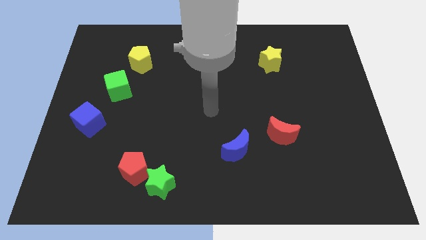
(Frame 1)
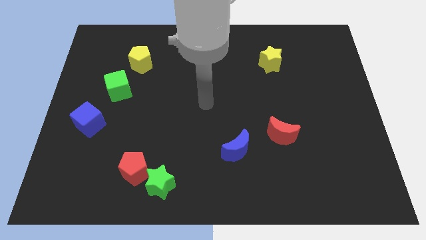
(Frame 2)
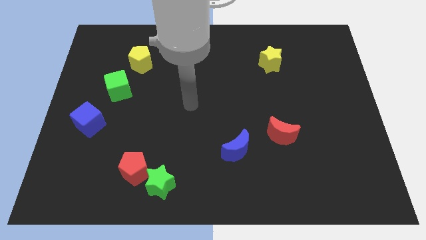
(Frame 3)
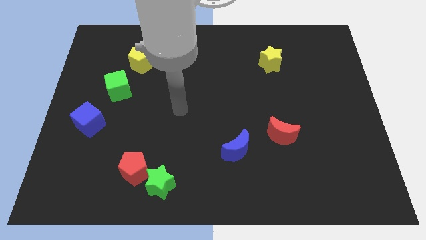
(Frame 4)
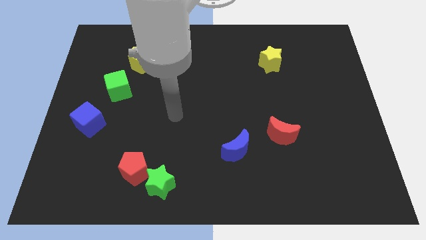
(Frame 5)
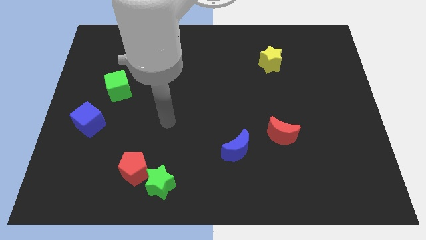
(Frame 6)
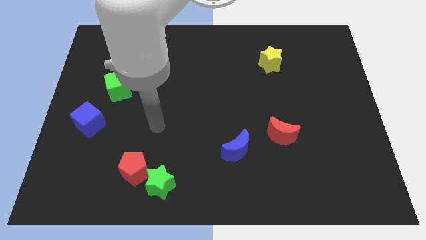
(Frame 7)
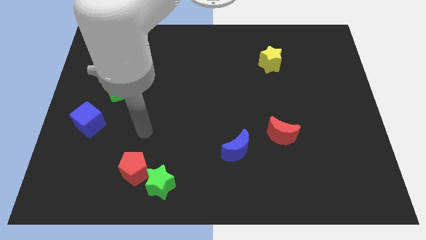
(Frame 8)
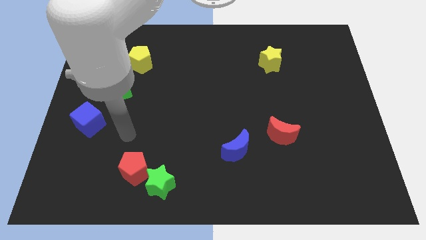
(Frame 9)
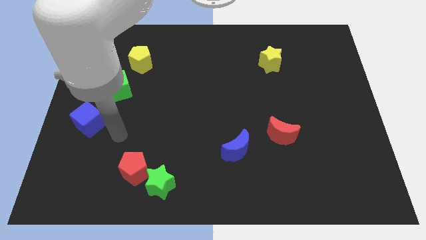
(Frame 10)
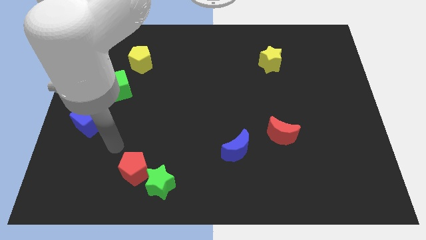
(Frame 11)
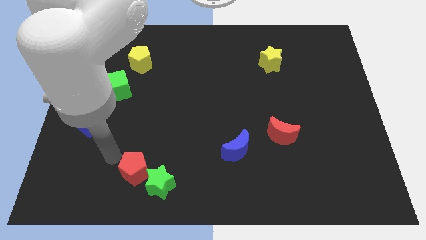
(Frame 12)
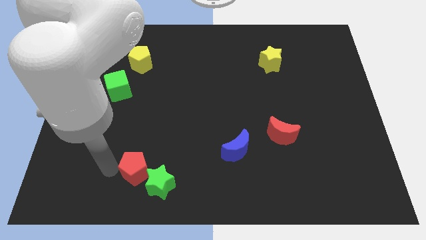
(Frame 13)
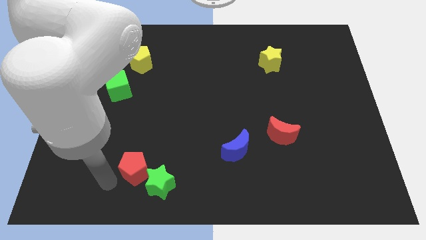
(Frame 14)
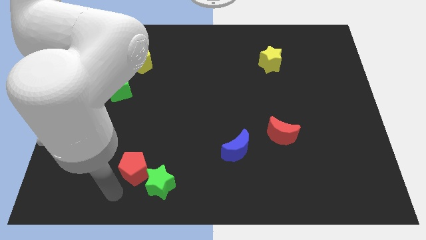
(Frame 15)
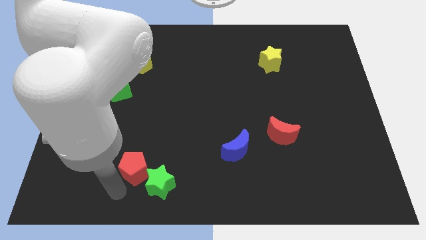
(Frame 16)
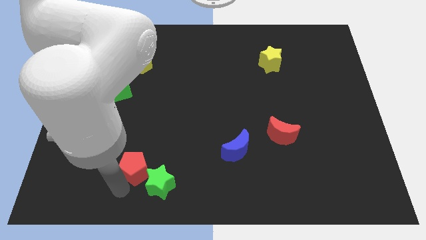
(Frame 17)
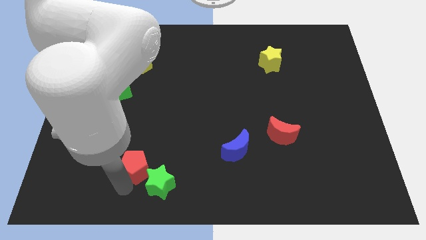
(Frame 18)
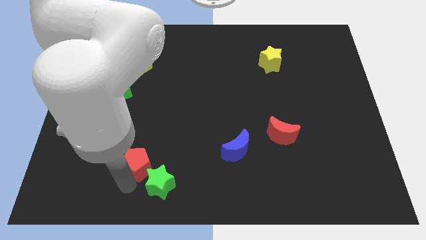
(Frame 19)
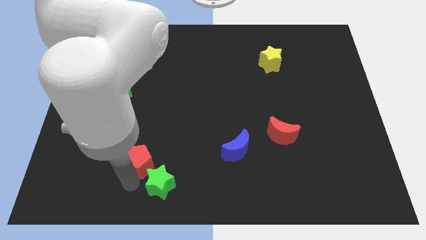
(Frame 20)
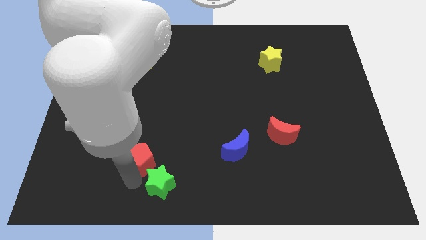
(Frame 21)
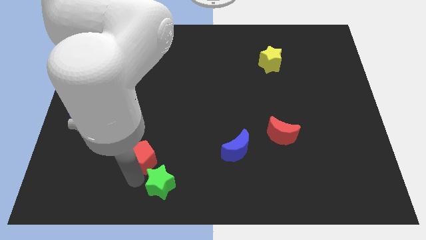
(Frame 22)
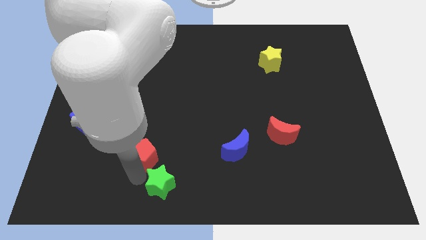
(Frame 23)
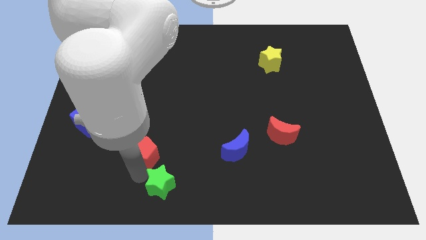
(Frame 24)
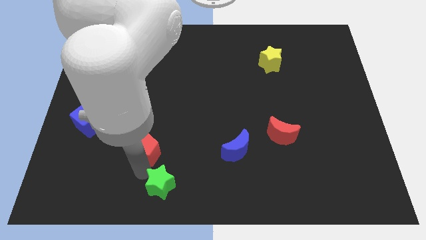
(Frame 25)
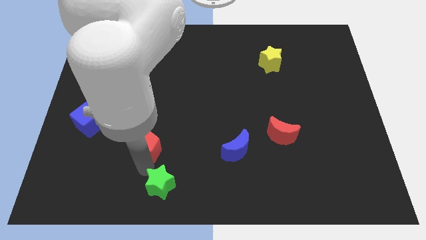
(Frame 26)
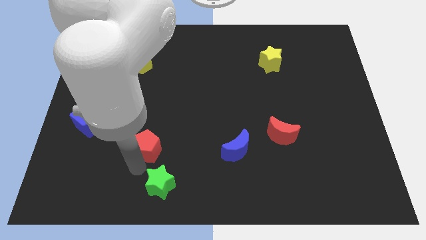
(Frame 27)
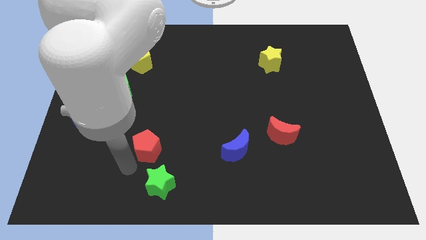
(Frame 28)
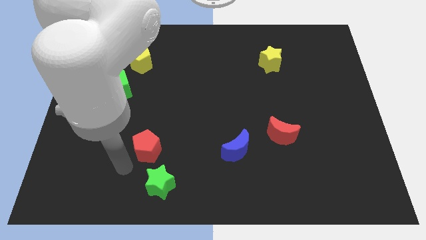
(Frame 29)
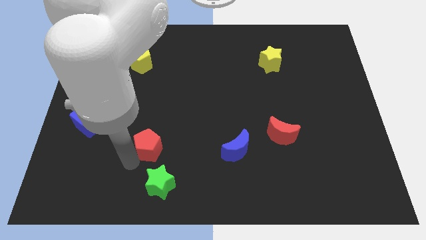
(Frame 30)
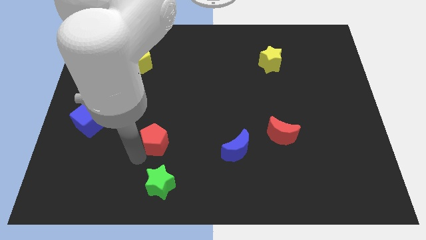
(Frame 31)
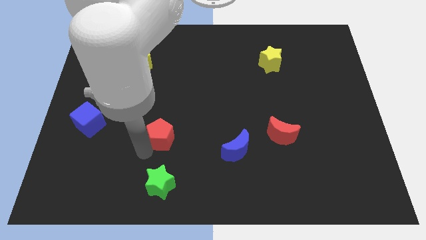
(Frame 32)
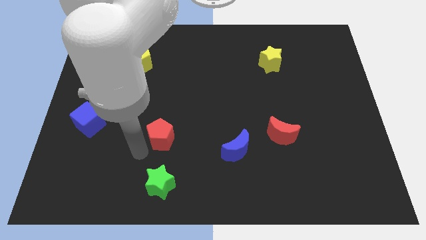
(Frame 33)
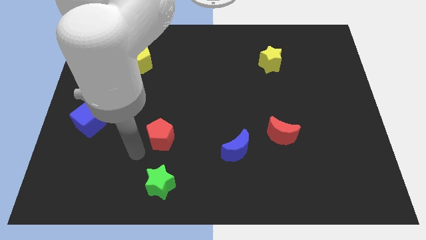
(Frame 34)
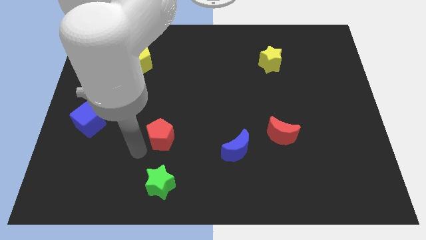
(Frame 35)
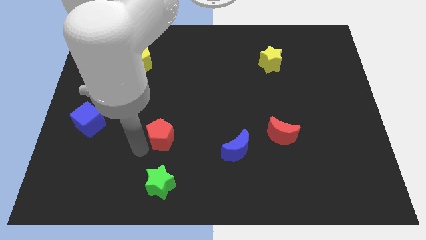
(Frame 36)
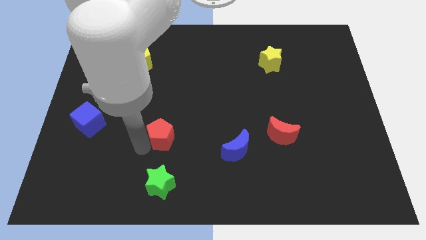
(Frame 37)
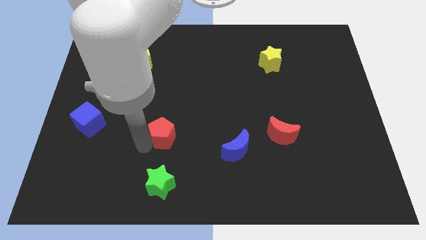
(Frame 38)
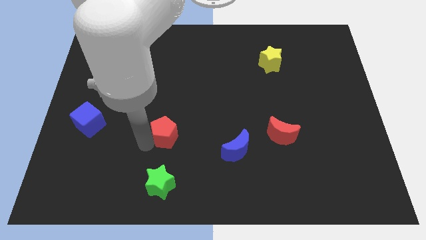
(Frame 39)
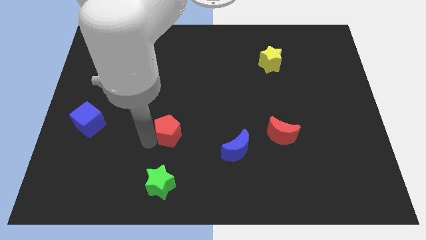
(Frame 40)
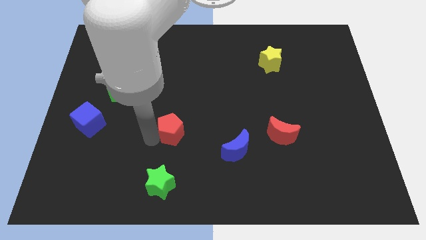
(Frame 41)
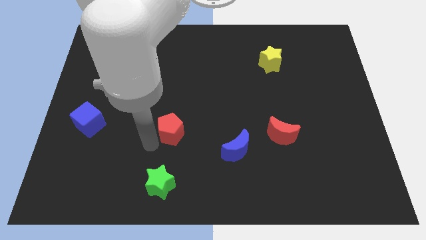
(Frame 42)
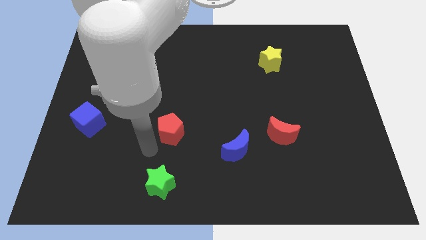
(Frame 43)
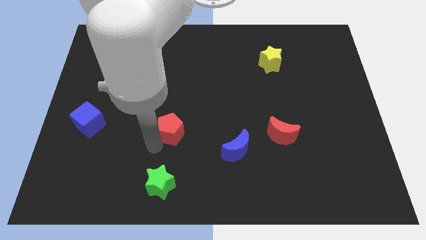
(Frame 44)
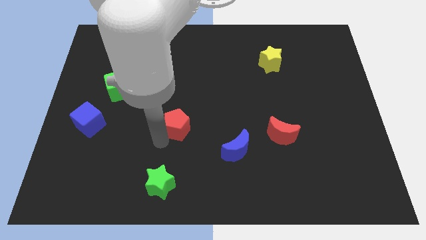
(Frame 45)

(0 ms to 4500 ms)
put the red pentagon to the middle of the board

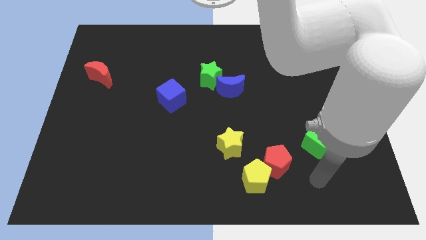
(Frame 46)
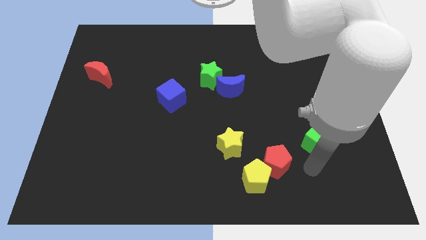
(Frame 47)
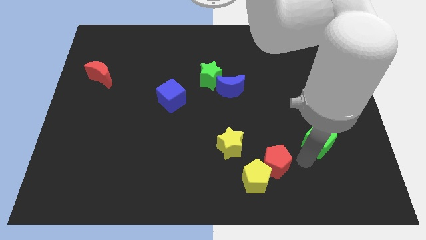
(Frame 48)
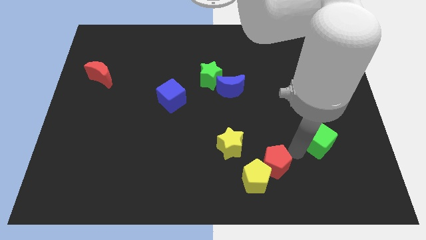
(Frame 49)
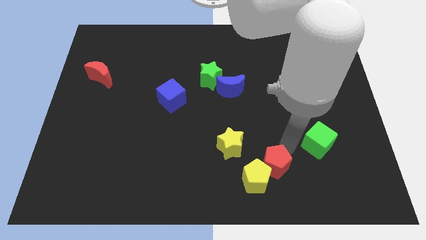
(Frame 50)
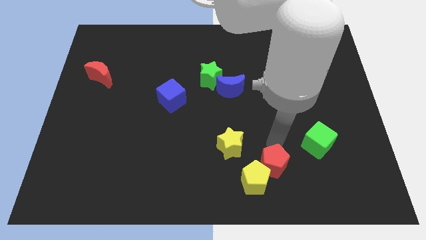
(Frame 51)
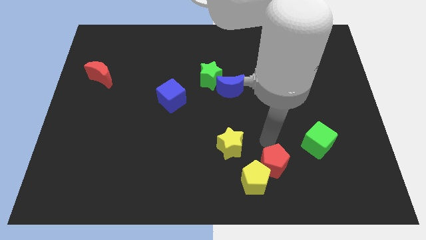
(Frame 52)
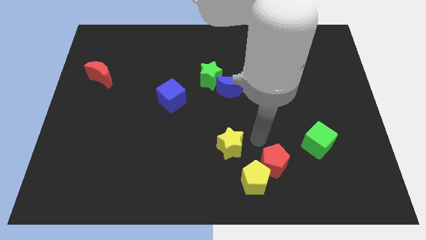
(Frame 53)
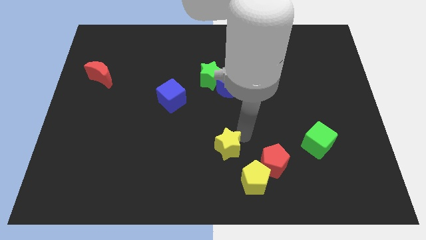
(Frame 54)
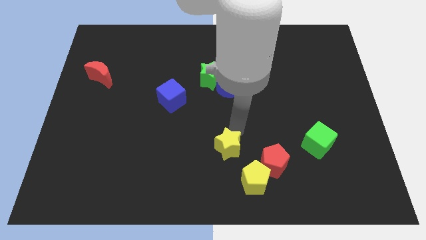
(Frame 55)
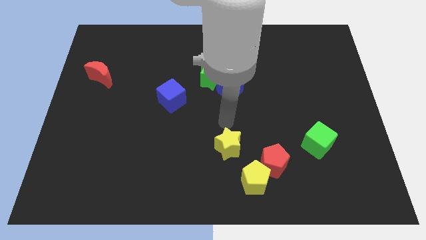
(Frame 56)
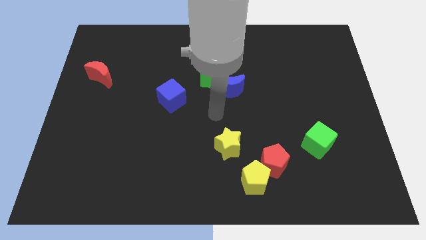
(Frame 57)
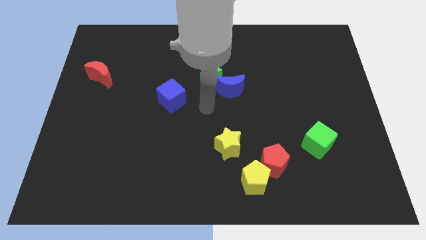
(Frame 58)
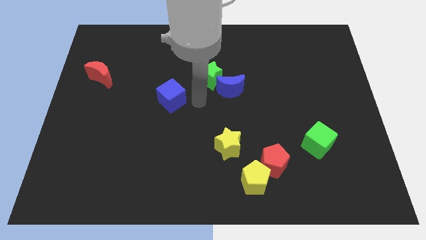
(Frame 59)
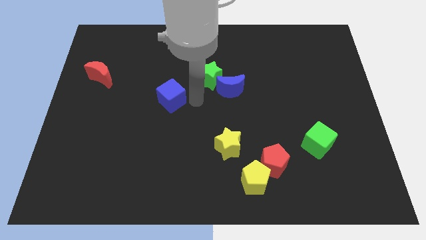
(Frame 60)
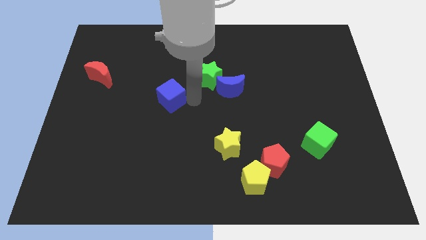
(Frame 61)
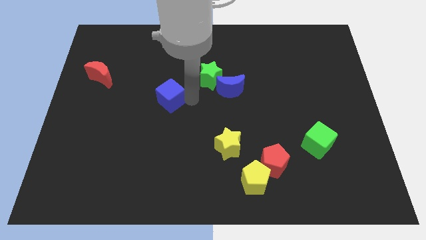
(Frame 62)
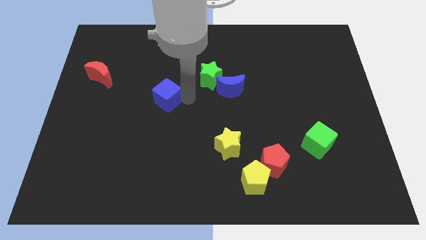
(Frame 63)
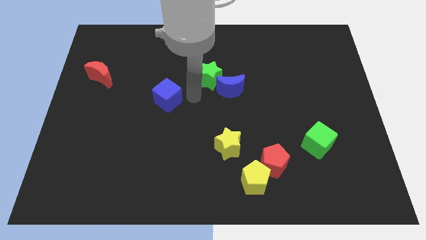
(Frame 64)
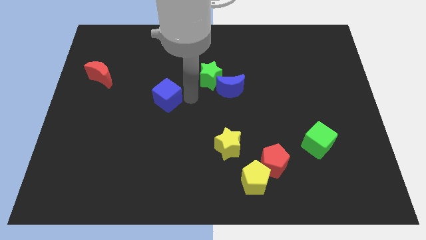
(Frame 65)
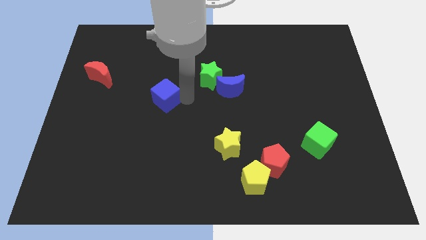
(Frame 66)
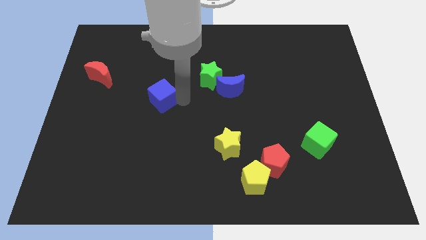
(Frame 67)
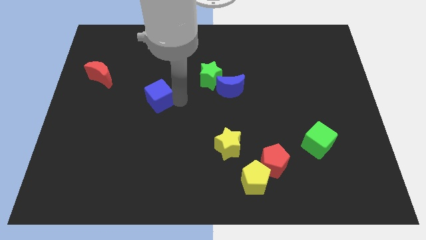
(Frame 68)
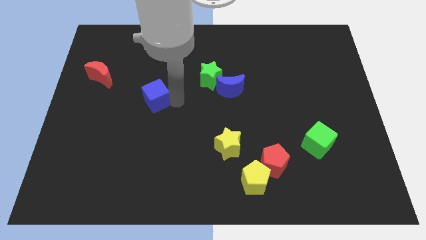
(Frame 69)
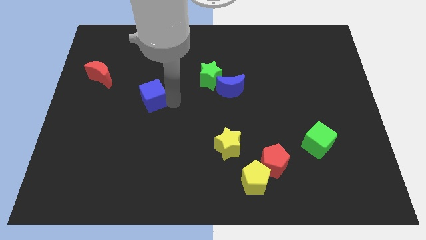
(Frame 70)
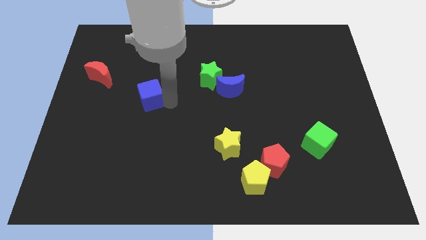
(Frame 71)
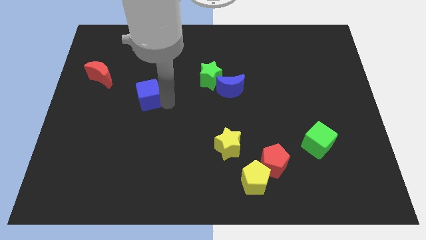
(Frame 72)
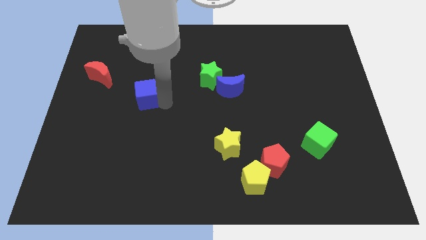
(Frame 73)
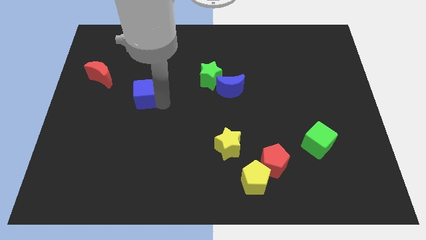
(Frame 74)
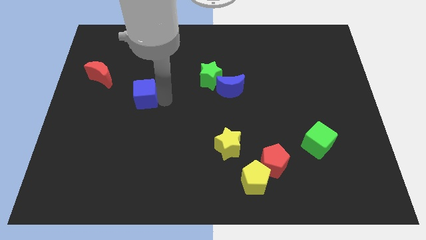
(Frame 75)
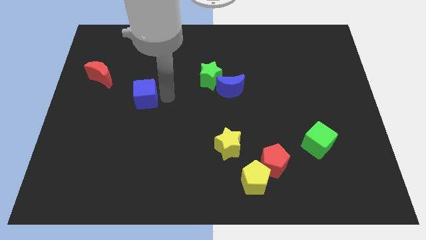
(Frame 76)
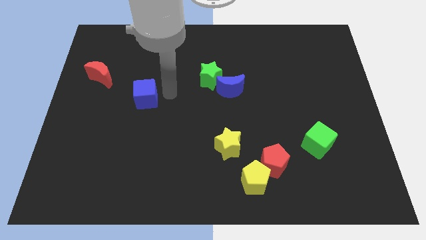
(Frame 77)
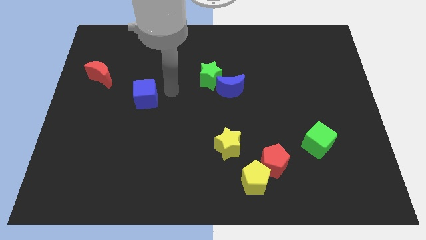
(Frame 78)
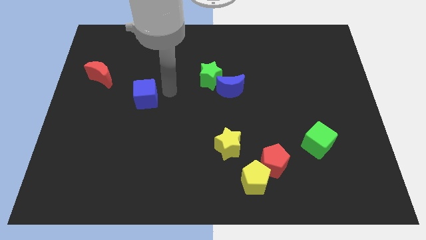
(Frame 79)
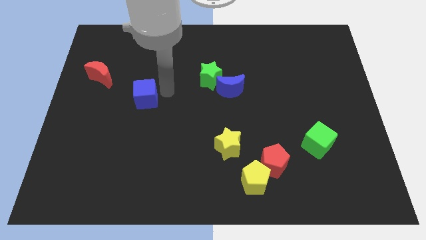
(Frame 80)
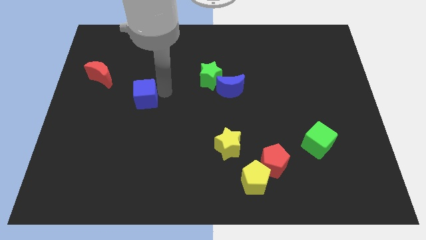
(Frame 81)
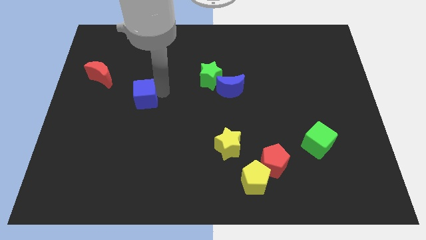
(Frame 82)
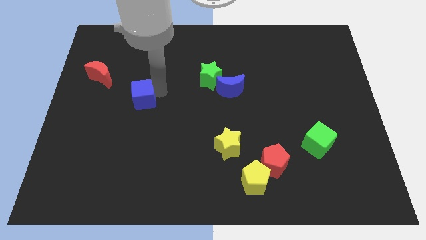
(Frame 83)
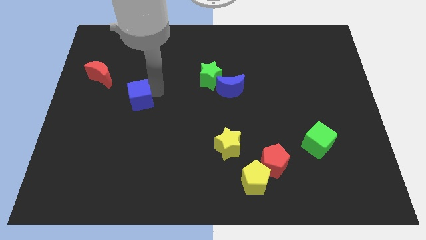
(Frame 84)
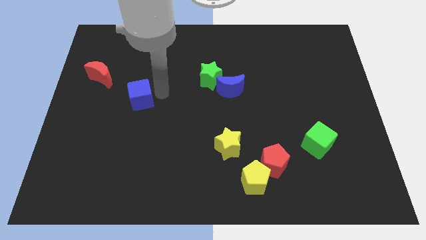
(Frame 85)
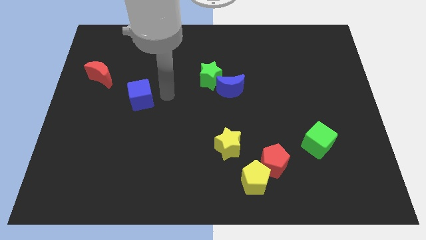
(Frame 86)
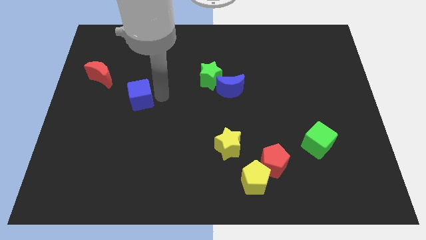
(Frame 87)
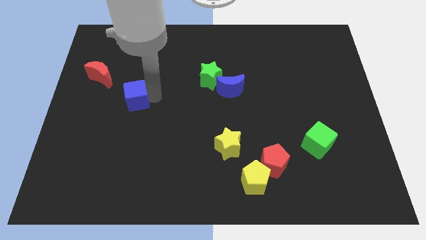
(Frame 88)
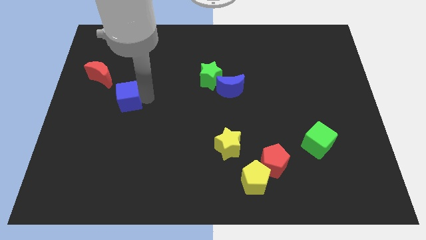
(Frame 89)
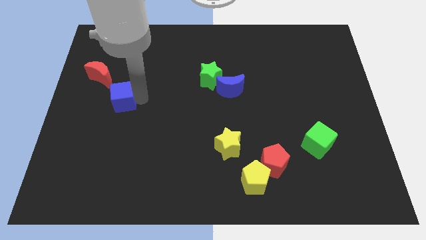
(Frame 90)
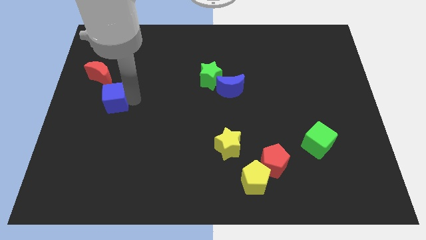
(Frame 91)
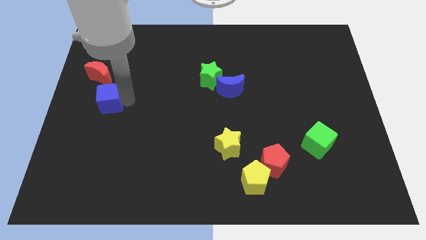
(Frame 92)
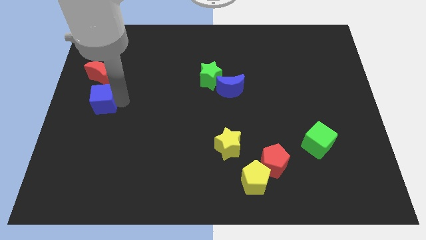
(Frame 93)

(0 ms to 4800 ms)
put the blue cube to the left side of the board
